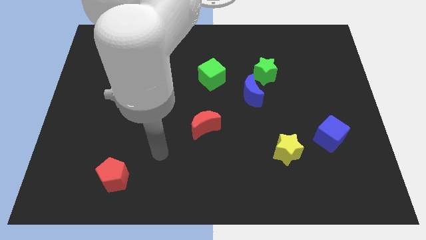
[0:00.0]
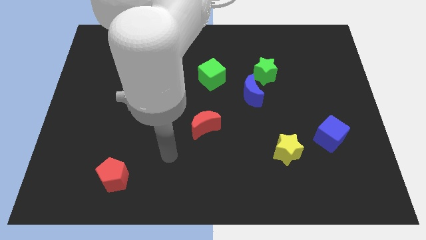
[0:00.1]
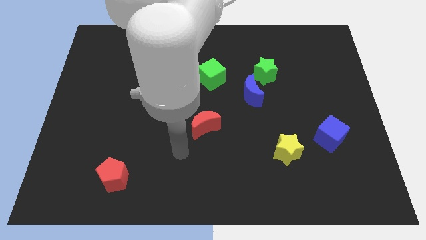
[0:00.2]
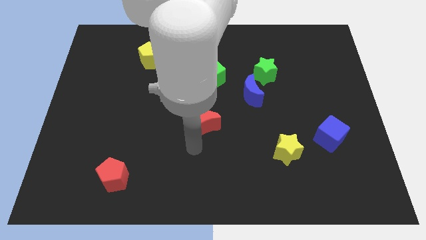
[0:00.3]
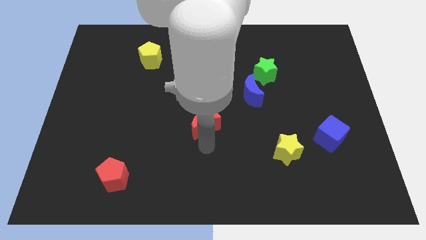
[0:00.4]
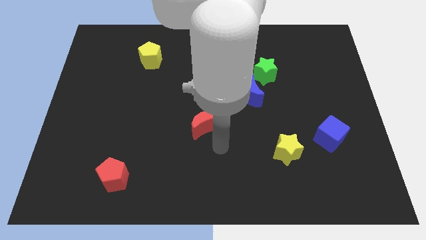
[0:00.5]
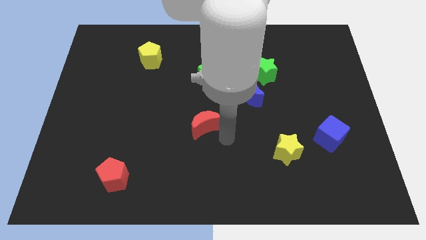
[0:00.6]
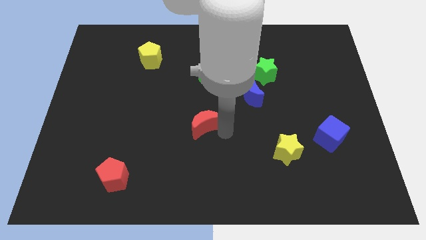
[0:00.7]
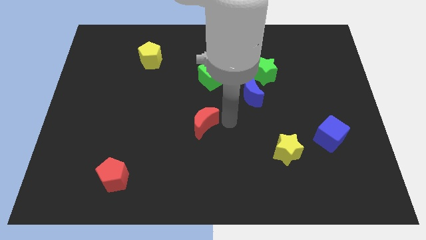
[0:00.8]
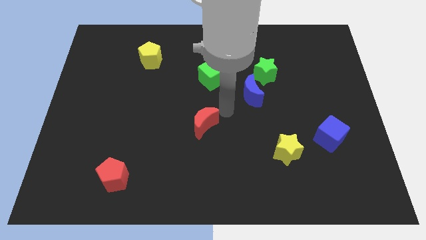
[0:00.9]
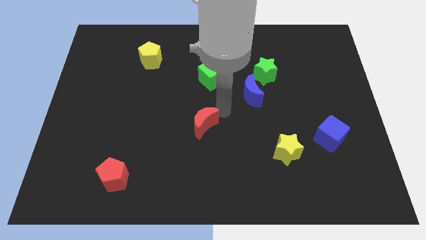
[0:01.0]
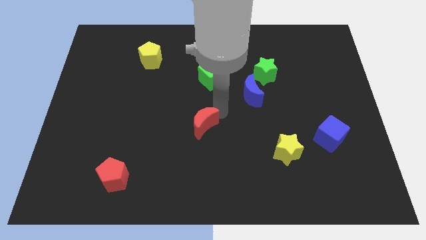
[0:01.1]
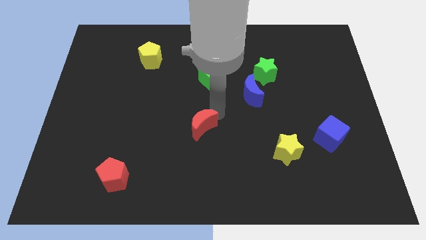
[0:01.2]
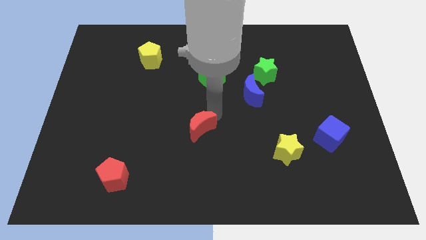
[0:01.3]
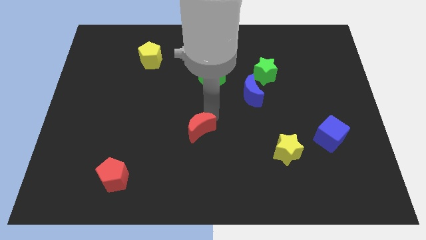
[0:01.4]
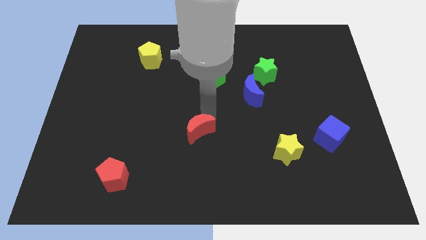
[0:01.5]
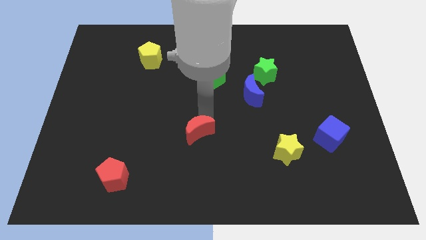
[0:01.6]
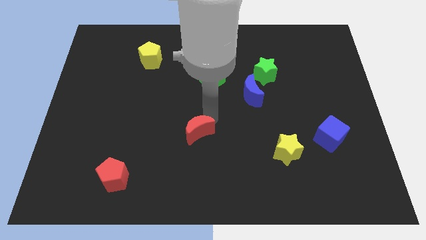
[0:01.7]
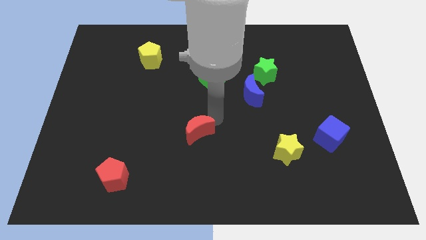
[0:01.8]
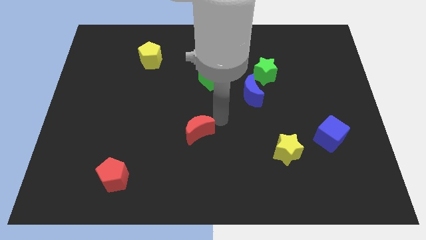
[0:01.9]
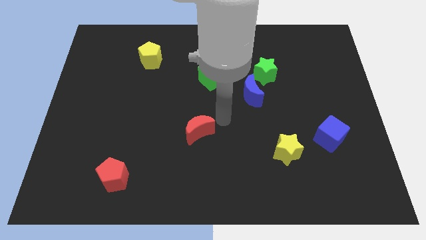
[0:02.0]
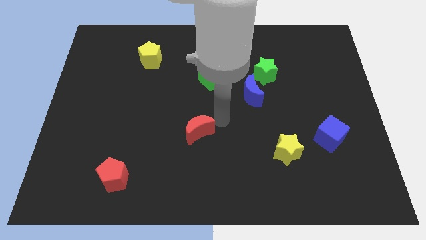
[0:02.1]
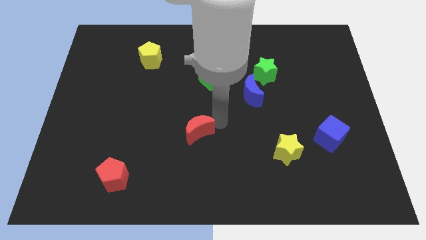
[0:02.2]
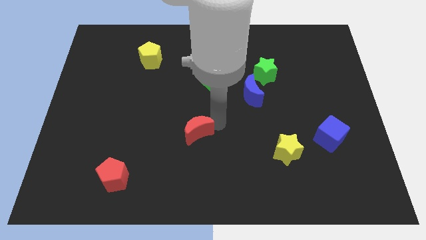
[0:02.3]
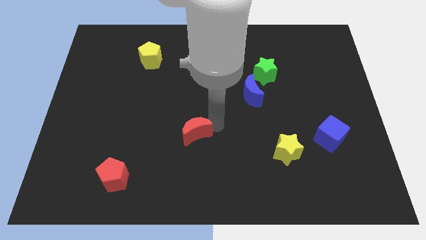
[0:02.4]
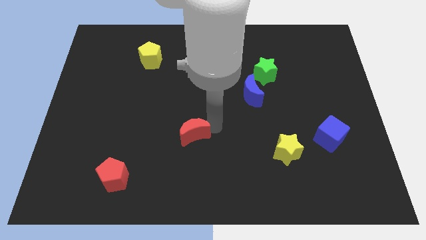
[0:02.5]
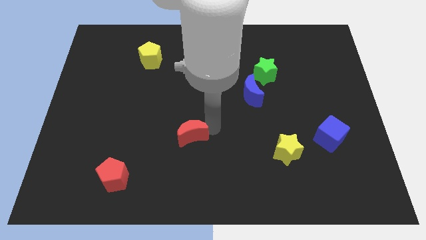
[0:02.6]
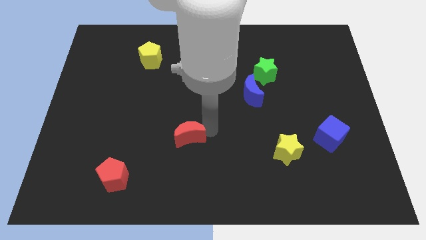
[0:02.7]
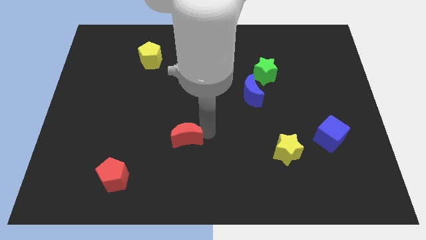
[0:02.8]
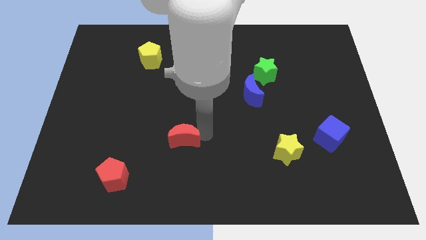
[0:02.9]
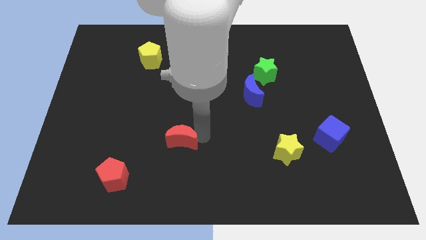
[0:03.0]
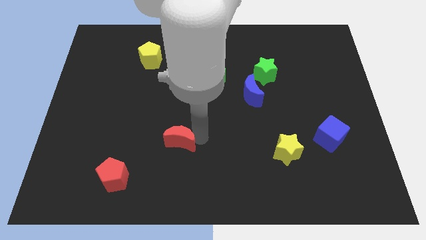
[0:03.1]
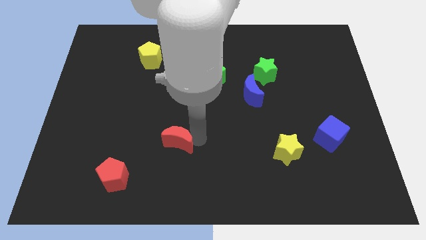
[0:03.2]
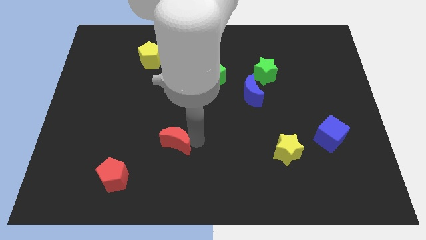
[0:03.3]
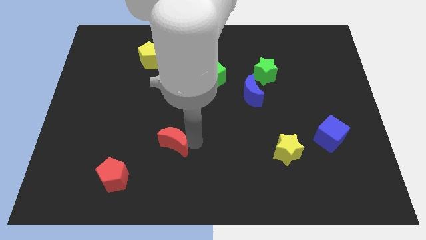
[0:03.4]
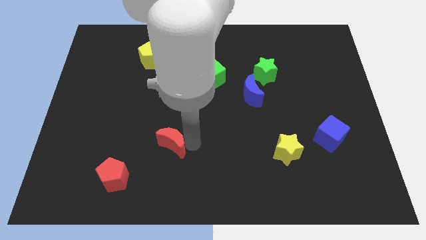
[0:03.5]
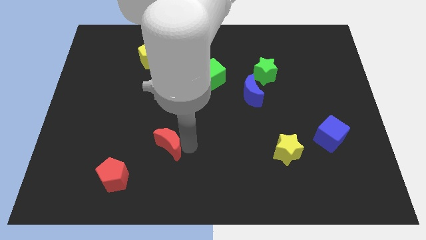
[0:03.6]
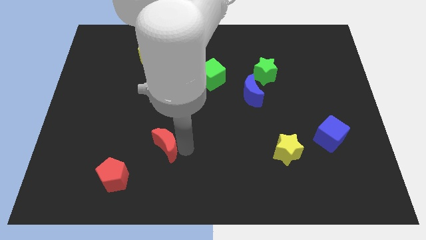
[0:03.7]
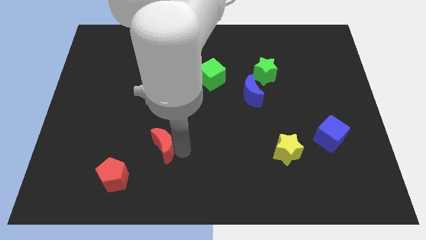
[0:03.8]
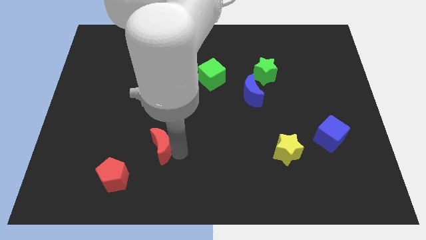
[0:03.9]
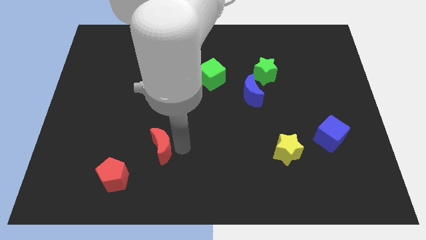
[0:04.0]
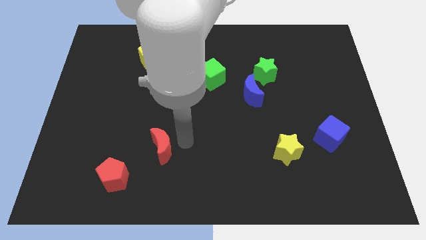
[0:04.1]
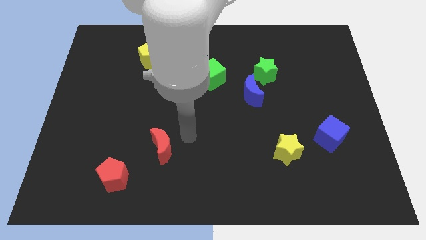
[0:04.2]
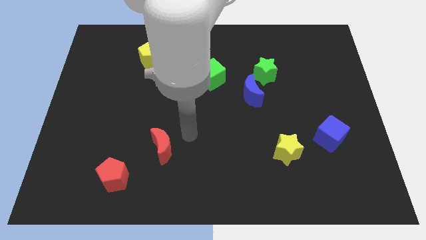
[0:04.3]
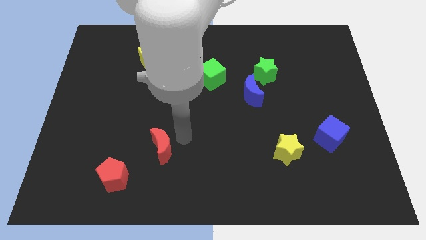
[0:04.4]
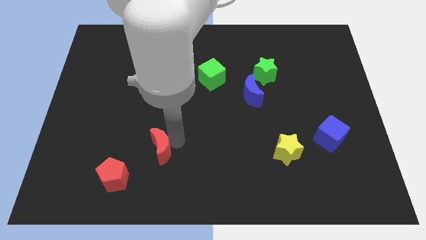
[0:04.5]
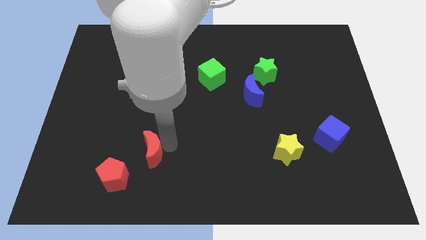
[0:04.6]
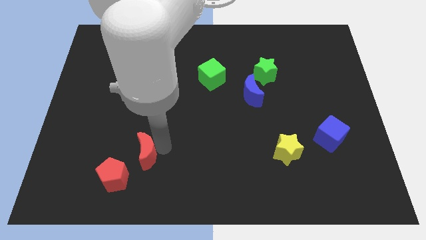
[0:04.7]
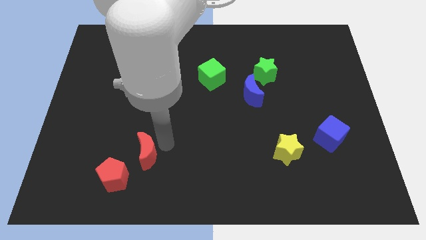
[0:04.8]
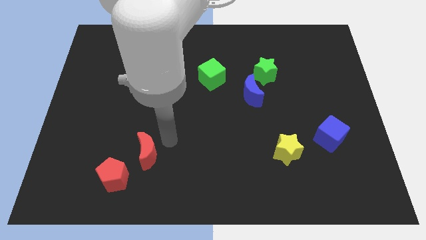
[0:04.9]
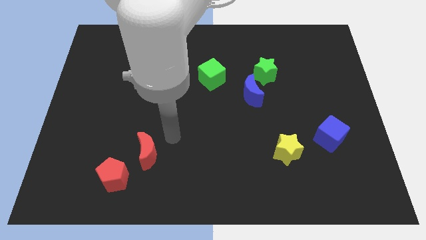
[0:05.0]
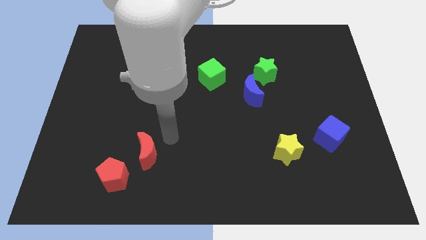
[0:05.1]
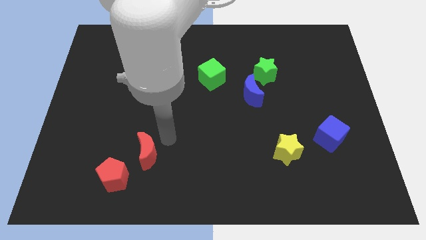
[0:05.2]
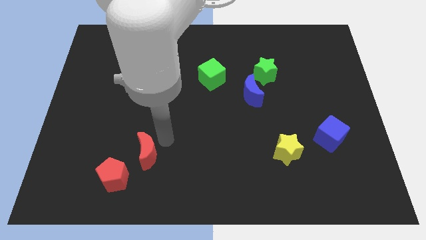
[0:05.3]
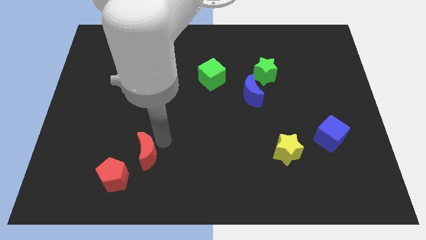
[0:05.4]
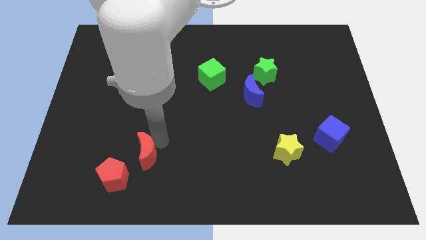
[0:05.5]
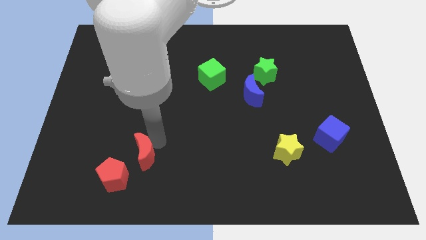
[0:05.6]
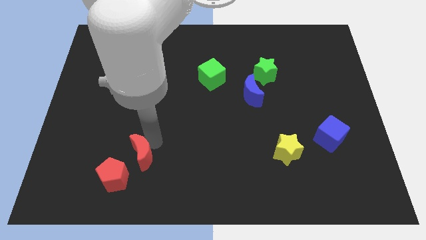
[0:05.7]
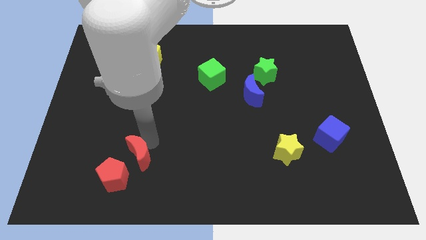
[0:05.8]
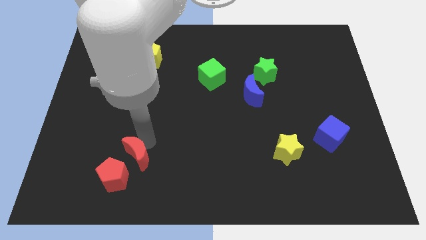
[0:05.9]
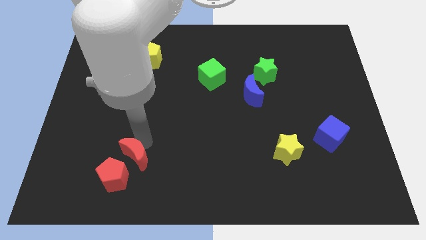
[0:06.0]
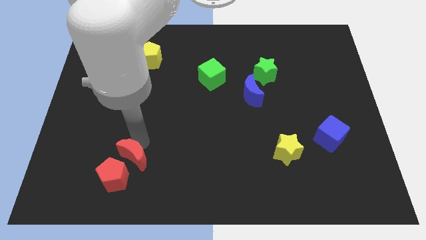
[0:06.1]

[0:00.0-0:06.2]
move the red moon to the red pentagon

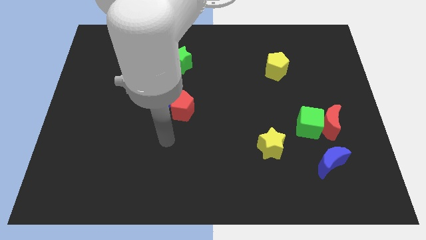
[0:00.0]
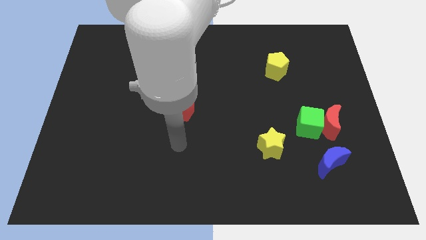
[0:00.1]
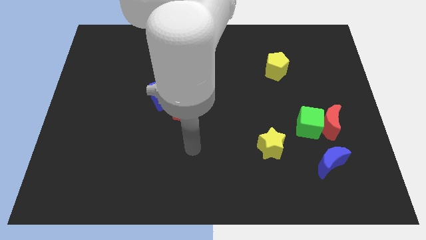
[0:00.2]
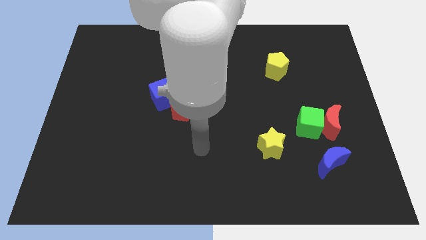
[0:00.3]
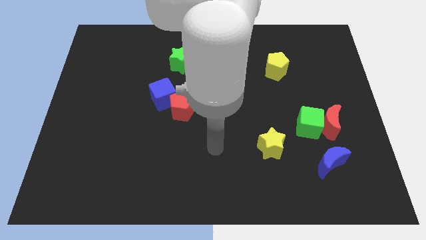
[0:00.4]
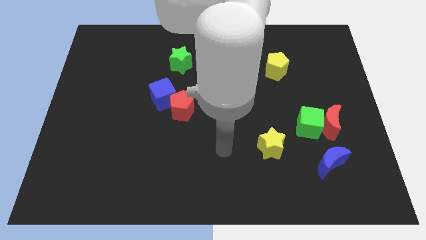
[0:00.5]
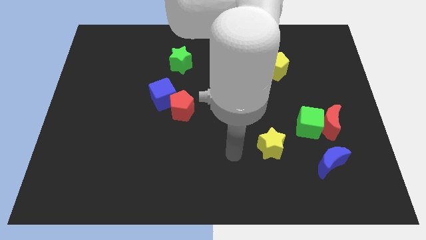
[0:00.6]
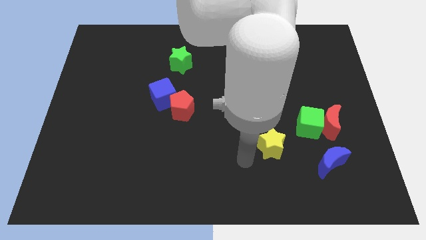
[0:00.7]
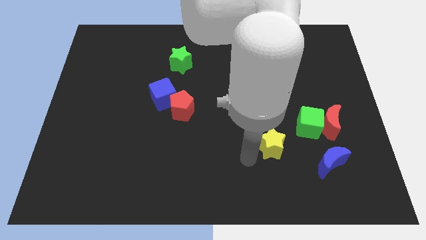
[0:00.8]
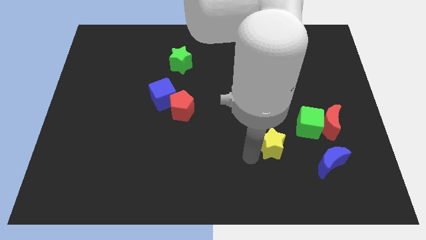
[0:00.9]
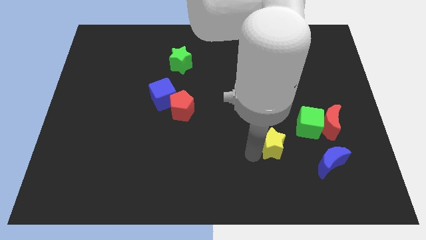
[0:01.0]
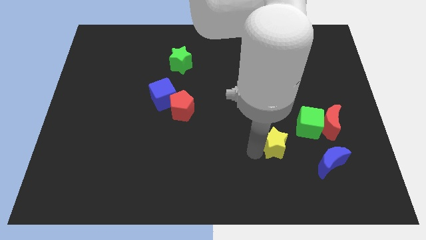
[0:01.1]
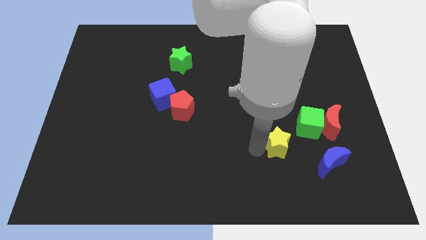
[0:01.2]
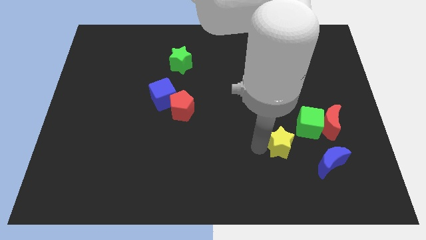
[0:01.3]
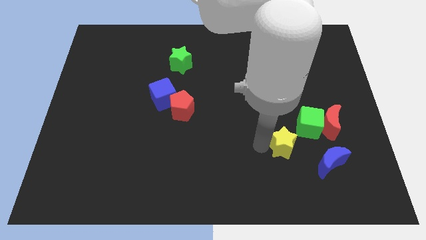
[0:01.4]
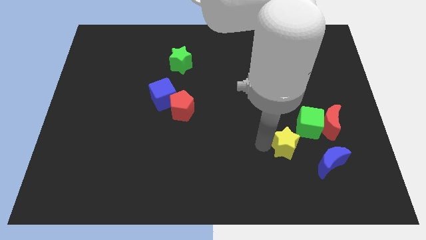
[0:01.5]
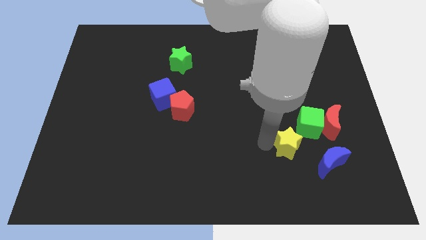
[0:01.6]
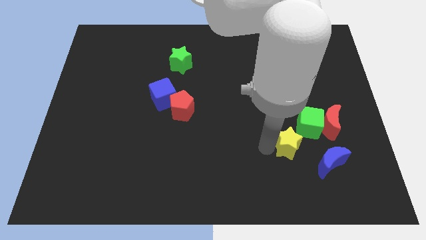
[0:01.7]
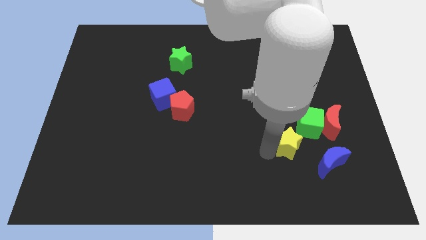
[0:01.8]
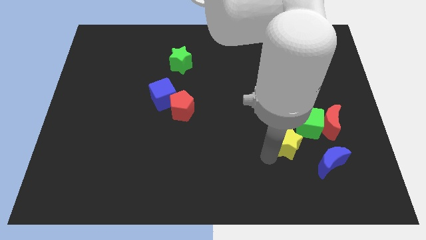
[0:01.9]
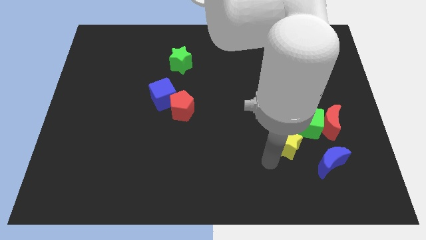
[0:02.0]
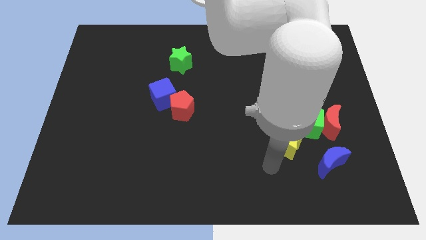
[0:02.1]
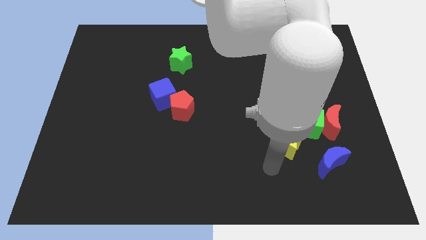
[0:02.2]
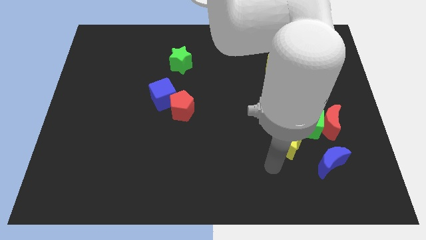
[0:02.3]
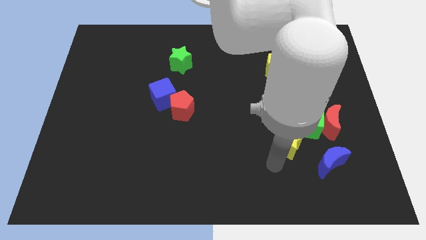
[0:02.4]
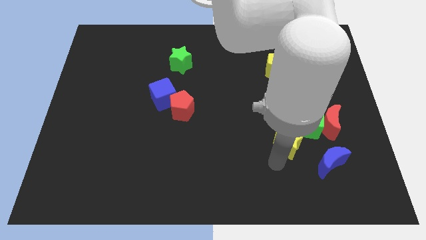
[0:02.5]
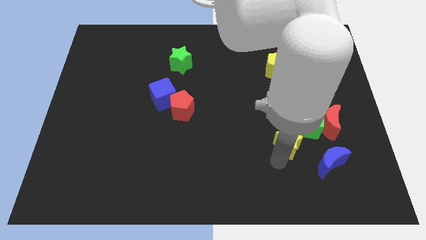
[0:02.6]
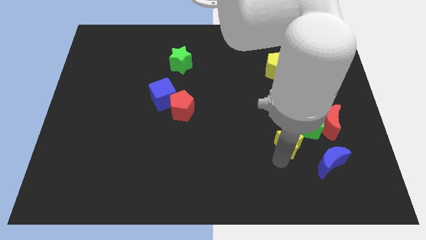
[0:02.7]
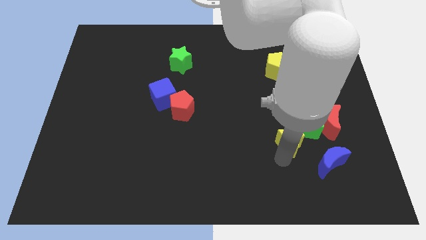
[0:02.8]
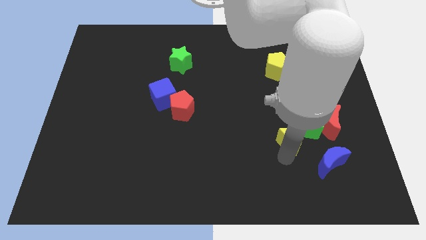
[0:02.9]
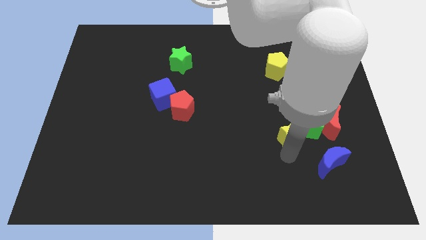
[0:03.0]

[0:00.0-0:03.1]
push the yellow star to the green cube
